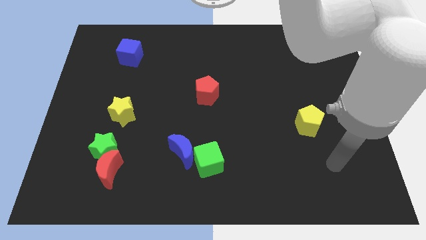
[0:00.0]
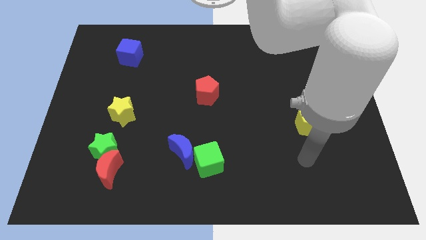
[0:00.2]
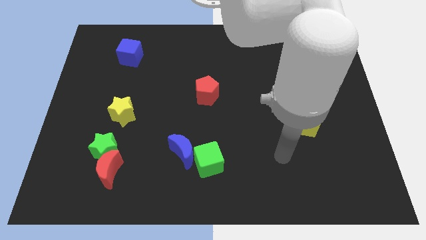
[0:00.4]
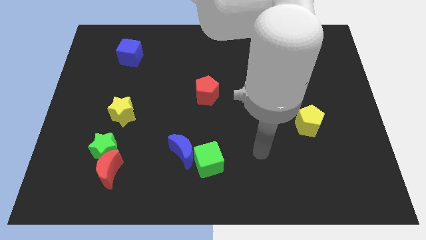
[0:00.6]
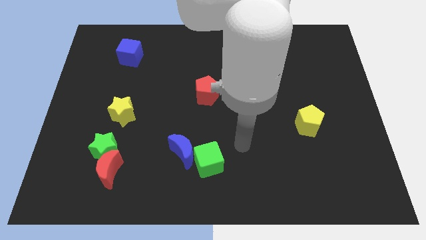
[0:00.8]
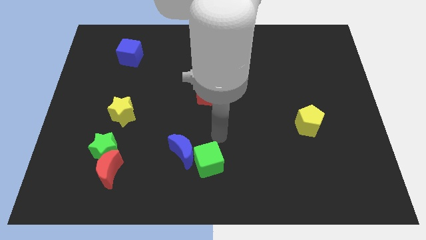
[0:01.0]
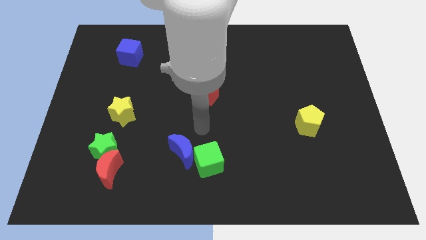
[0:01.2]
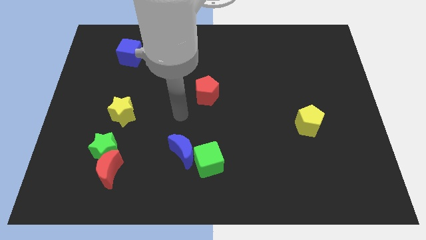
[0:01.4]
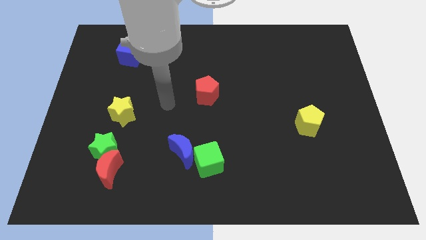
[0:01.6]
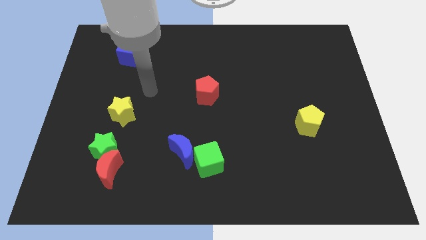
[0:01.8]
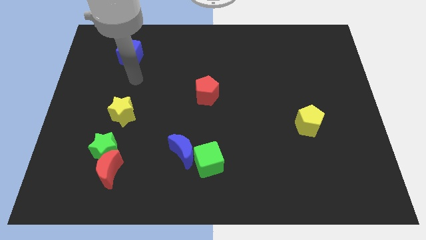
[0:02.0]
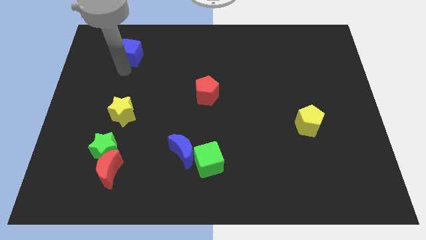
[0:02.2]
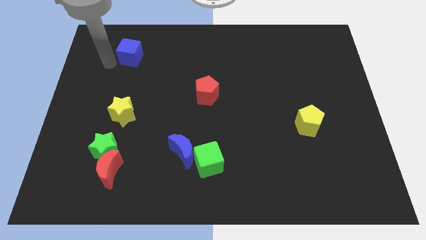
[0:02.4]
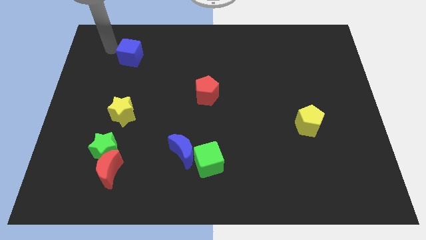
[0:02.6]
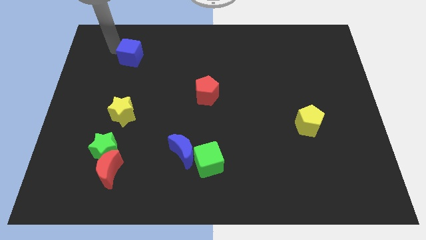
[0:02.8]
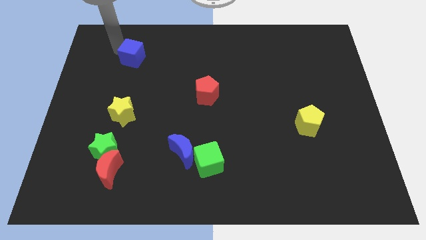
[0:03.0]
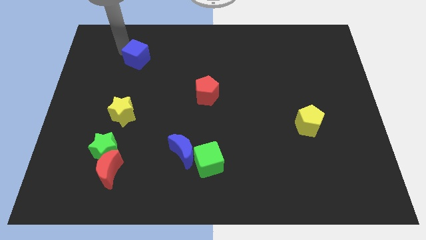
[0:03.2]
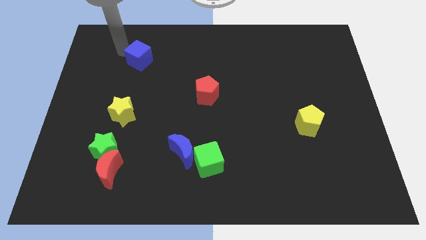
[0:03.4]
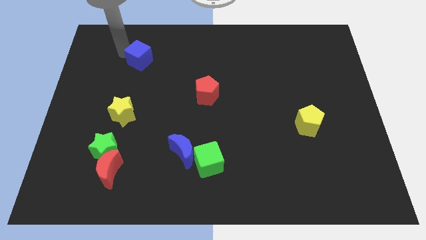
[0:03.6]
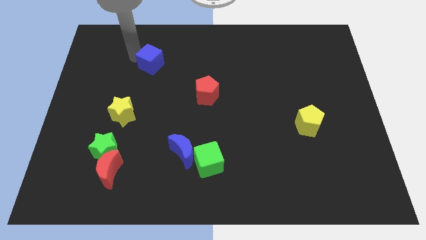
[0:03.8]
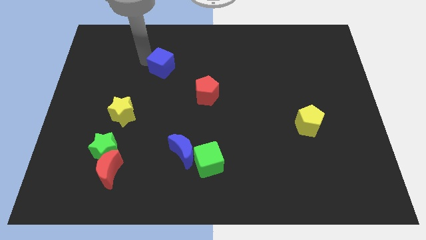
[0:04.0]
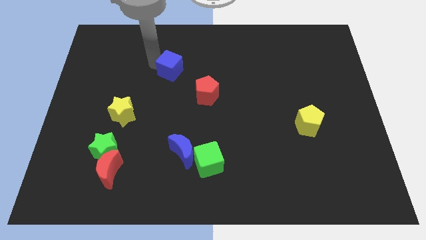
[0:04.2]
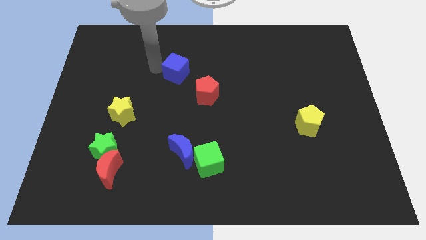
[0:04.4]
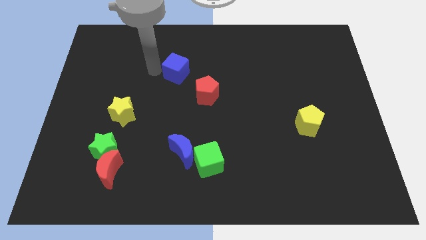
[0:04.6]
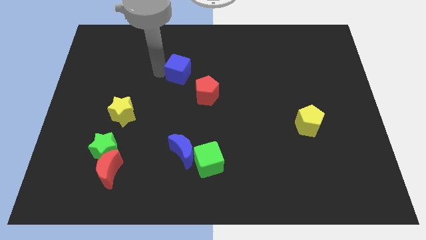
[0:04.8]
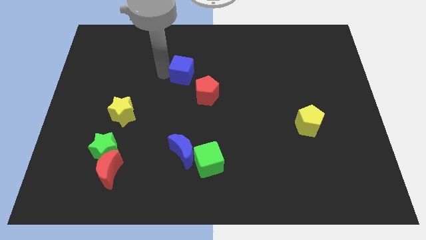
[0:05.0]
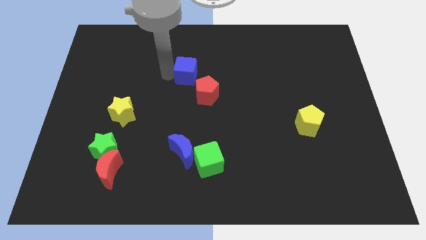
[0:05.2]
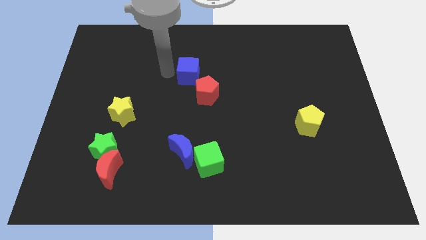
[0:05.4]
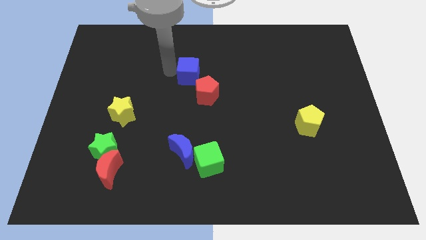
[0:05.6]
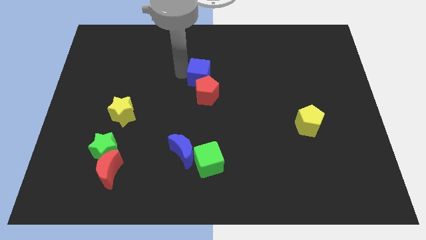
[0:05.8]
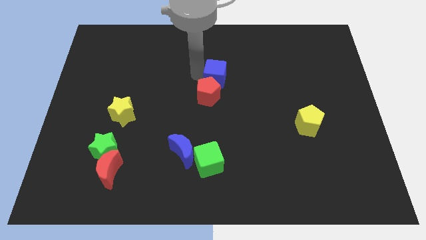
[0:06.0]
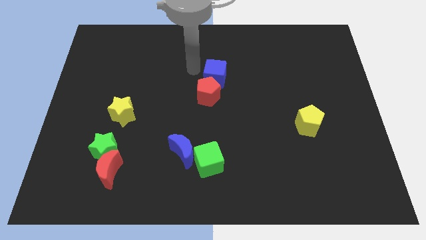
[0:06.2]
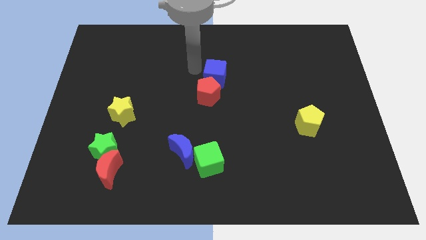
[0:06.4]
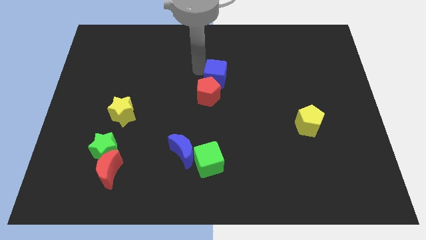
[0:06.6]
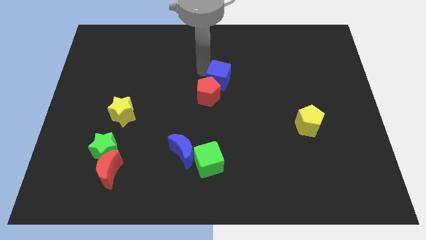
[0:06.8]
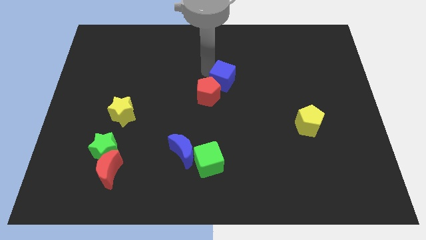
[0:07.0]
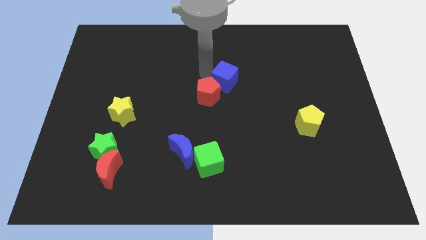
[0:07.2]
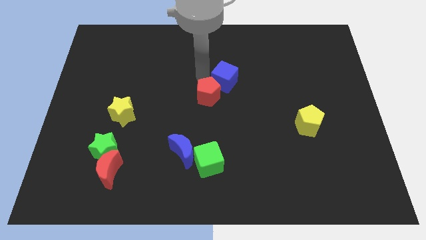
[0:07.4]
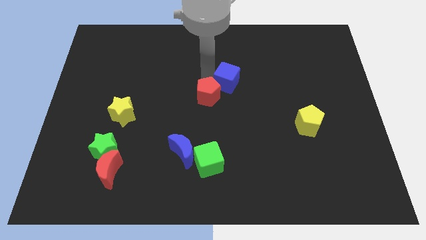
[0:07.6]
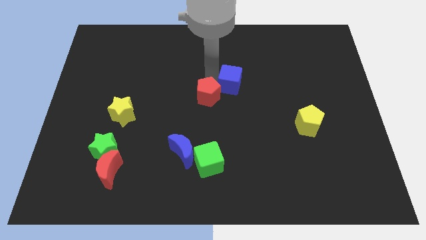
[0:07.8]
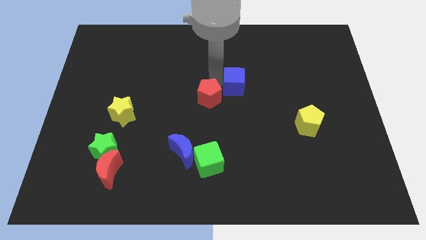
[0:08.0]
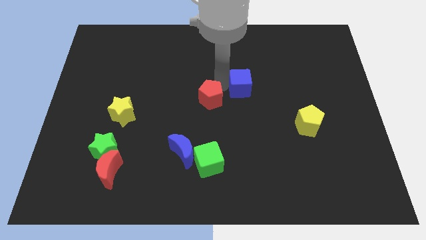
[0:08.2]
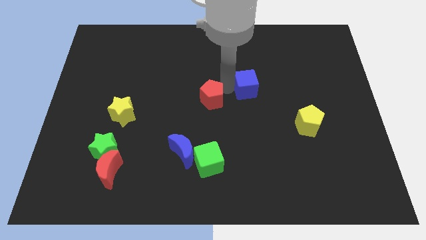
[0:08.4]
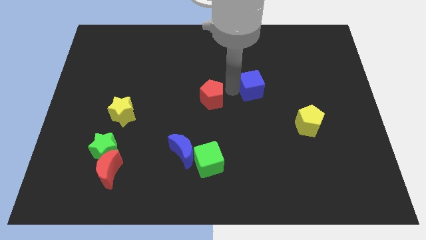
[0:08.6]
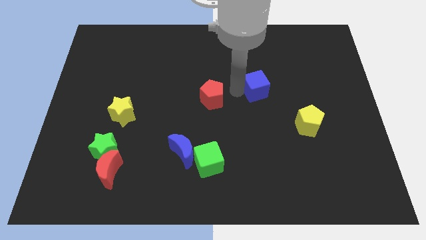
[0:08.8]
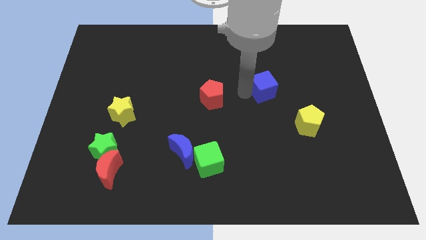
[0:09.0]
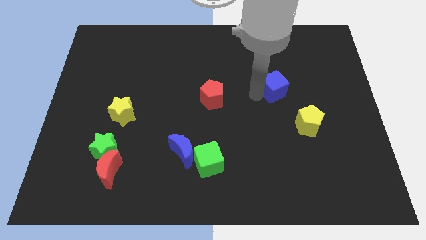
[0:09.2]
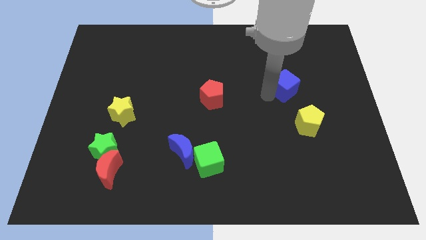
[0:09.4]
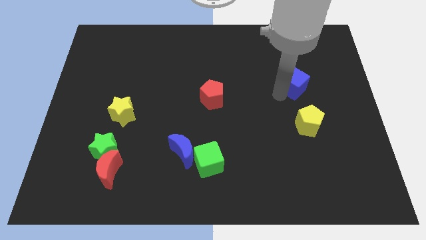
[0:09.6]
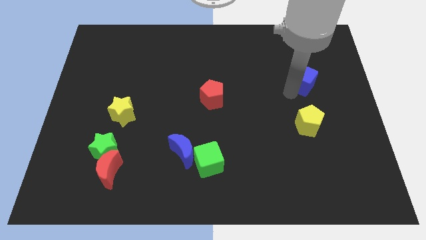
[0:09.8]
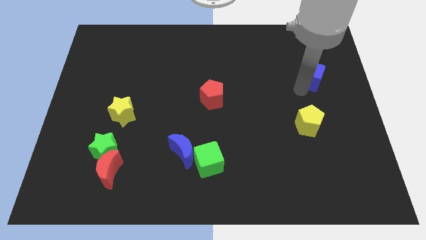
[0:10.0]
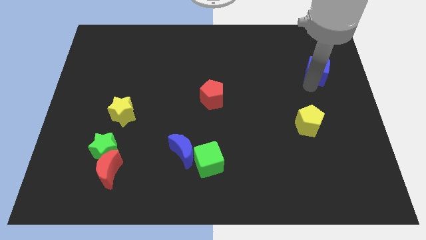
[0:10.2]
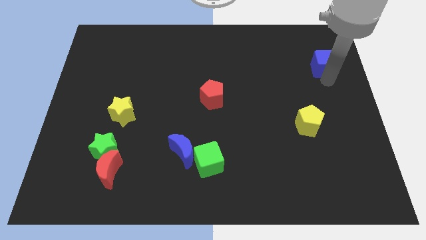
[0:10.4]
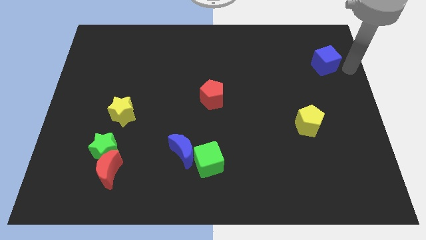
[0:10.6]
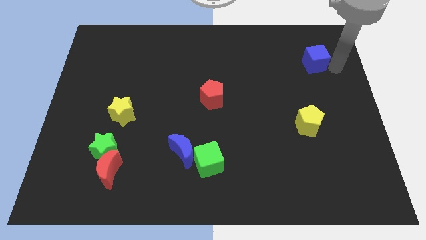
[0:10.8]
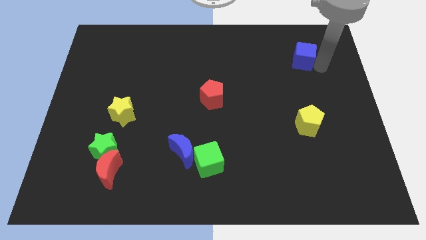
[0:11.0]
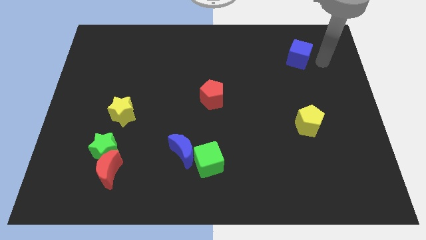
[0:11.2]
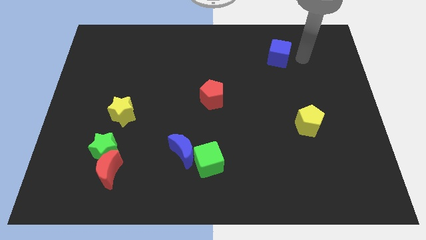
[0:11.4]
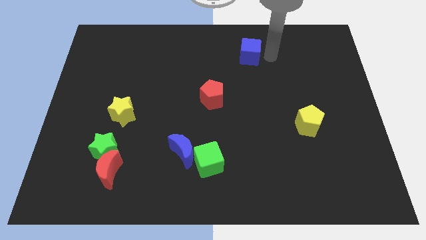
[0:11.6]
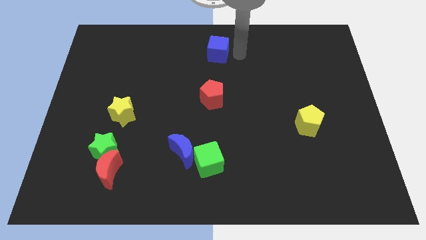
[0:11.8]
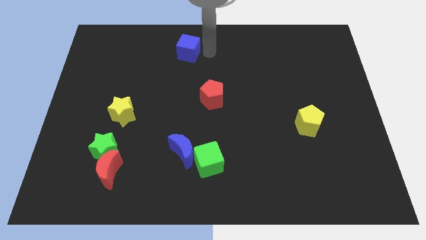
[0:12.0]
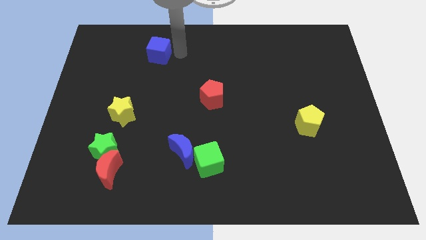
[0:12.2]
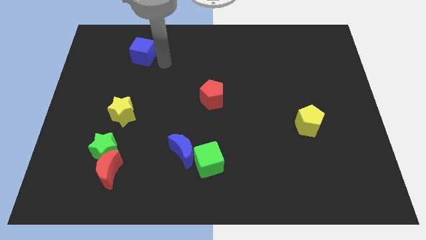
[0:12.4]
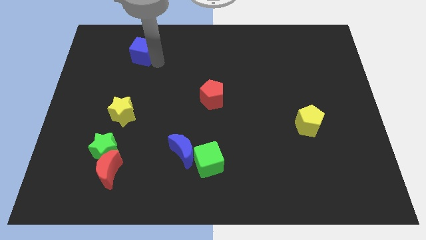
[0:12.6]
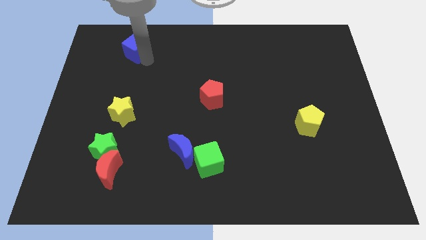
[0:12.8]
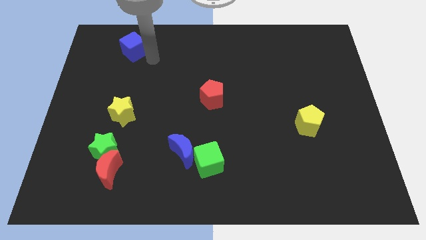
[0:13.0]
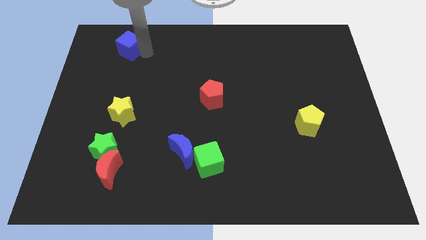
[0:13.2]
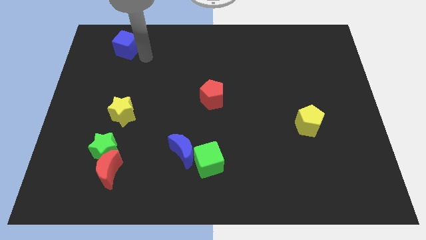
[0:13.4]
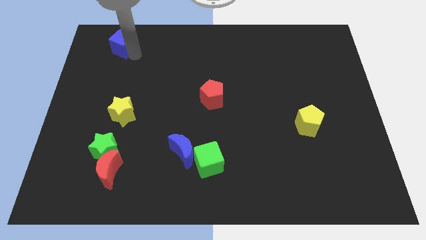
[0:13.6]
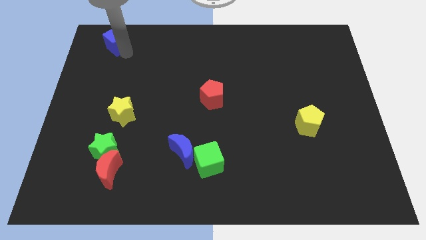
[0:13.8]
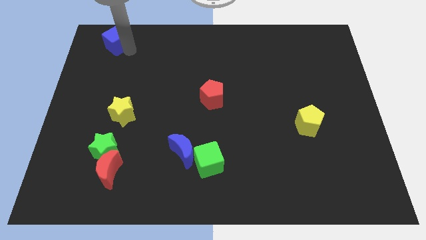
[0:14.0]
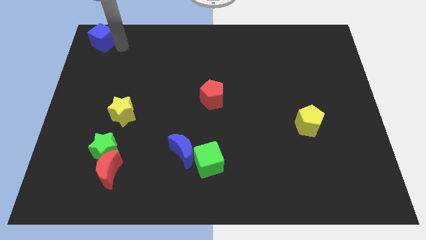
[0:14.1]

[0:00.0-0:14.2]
slide the blue cube to the upper left corner

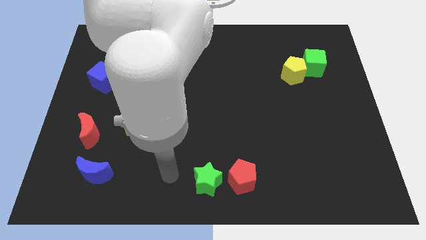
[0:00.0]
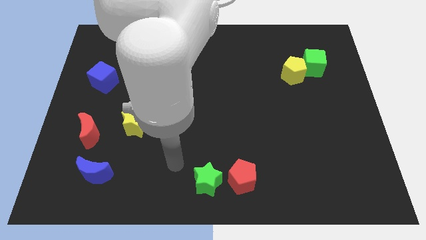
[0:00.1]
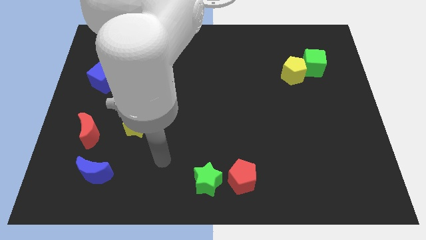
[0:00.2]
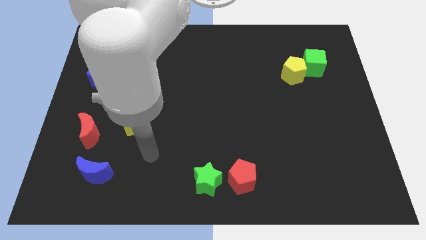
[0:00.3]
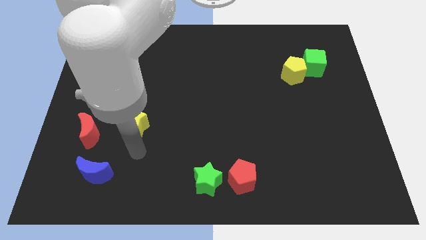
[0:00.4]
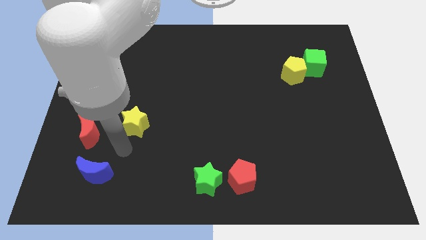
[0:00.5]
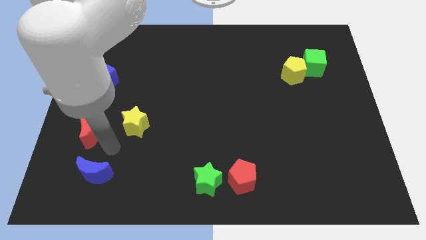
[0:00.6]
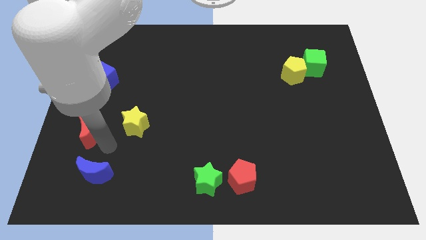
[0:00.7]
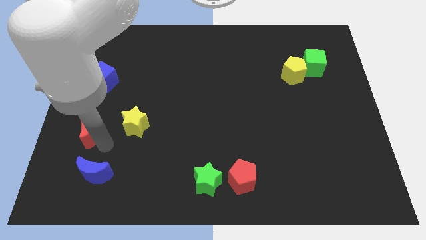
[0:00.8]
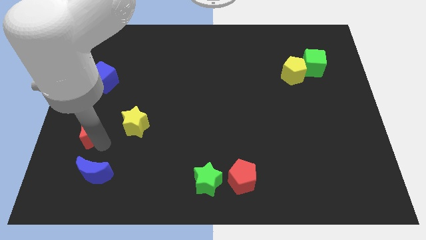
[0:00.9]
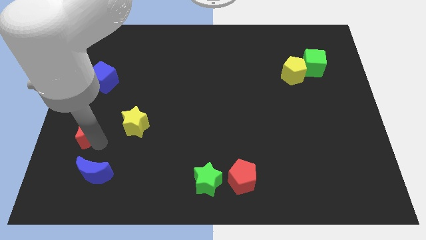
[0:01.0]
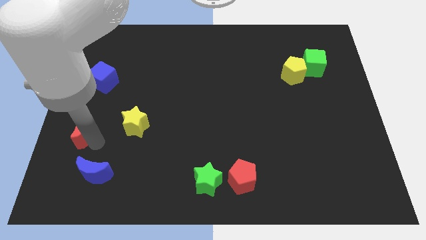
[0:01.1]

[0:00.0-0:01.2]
put the red moon to the left side
